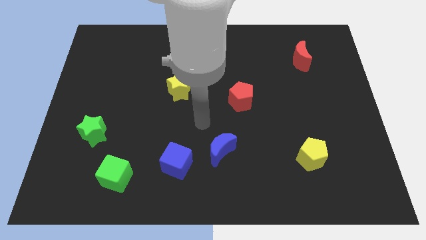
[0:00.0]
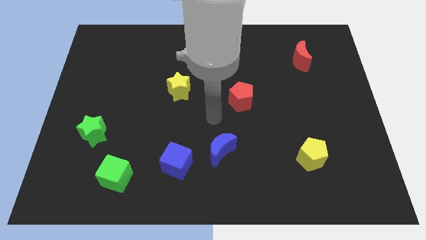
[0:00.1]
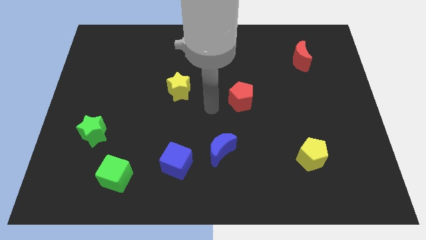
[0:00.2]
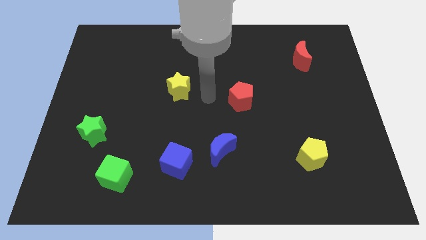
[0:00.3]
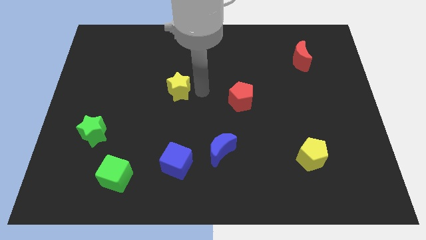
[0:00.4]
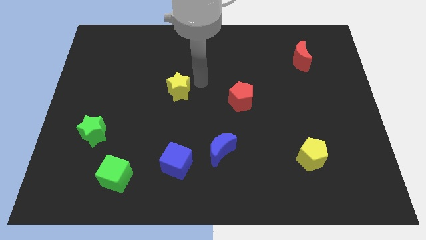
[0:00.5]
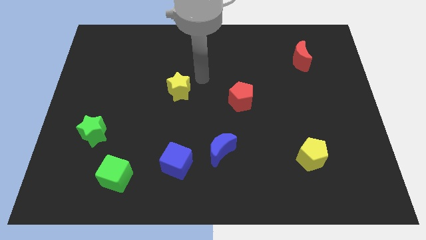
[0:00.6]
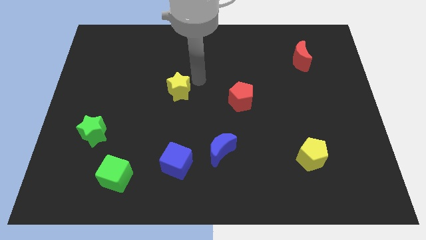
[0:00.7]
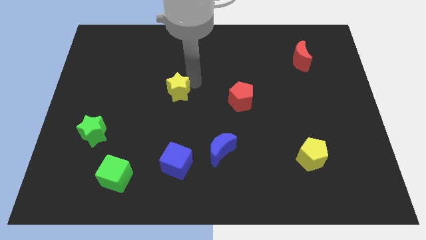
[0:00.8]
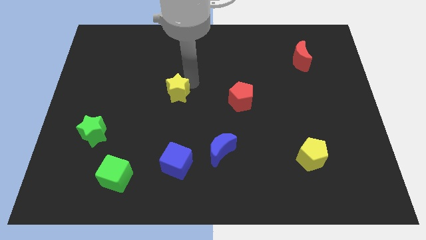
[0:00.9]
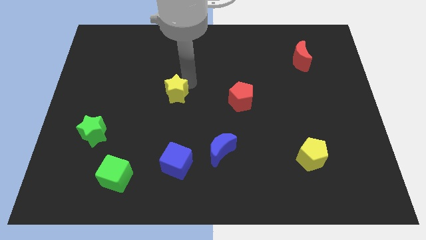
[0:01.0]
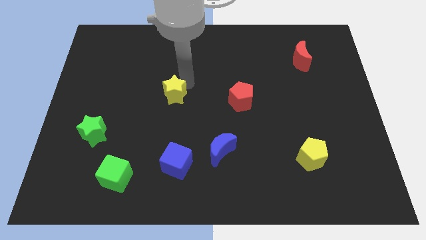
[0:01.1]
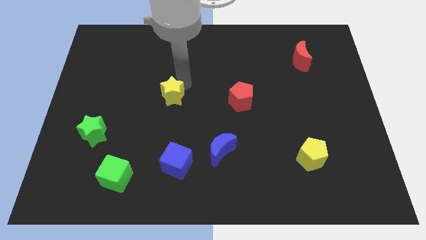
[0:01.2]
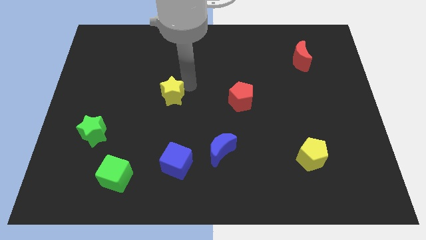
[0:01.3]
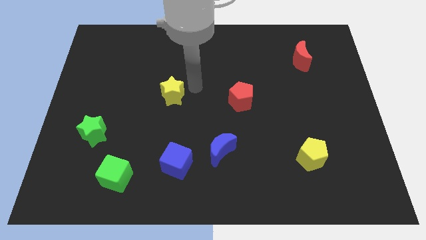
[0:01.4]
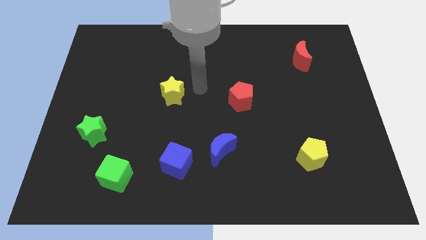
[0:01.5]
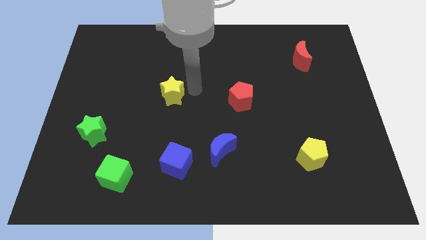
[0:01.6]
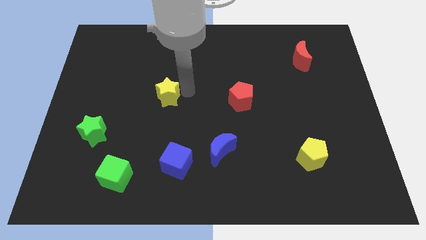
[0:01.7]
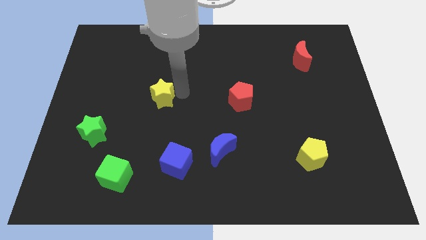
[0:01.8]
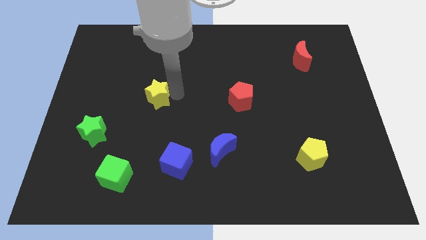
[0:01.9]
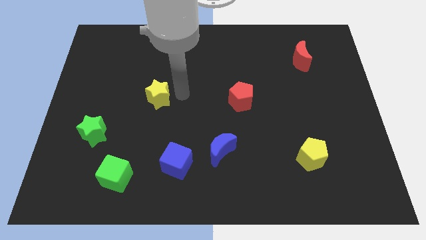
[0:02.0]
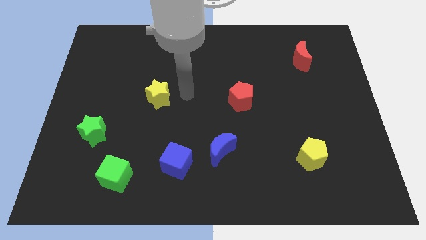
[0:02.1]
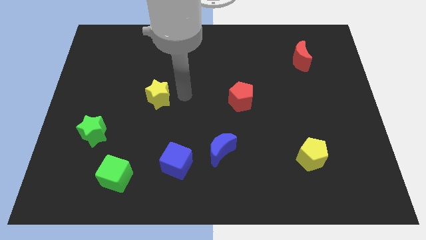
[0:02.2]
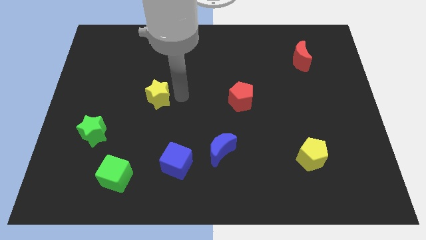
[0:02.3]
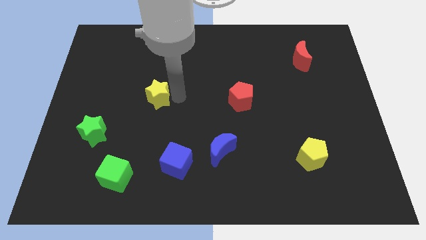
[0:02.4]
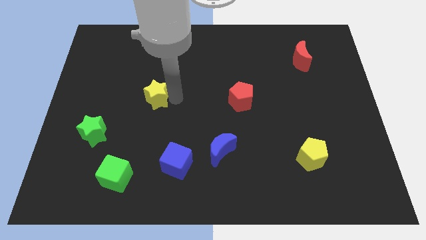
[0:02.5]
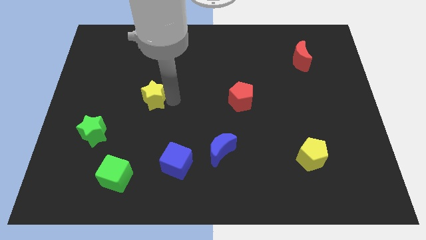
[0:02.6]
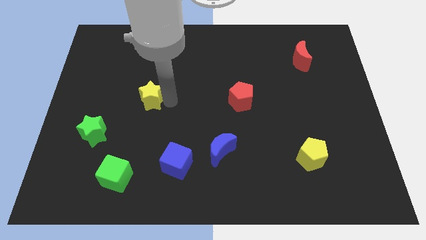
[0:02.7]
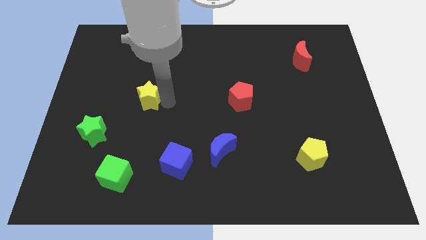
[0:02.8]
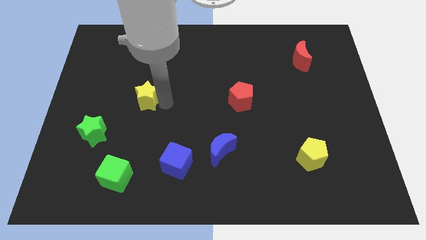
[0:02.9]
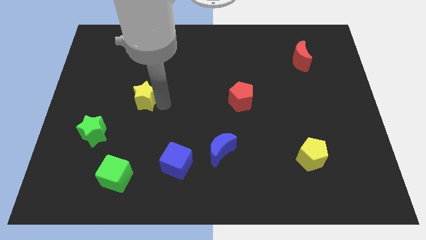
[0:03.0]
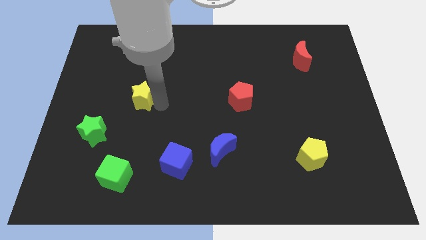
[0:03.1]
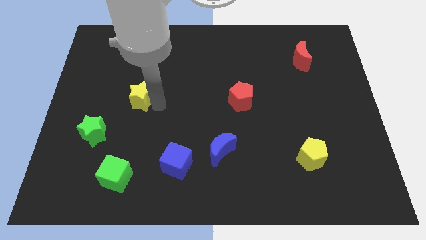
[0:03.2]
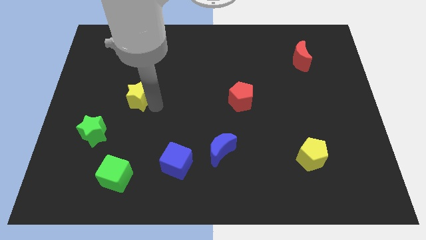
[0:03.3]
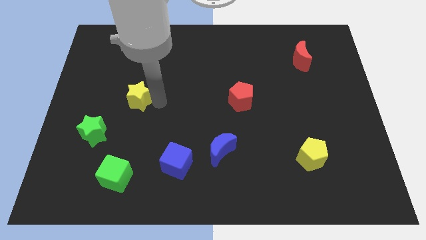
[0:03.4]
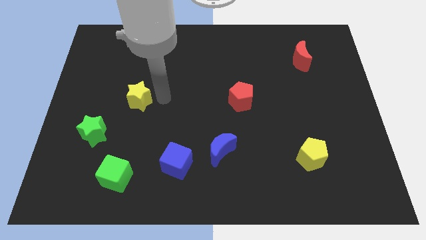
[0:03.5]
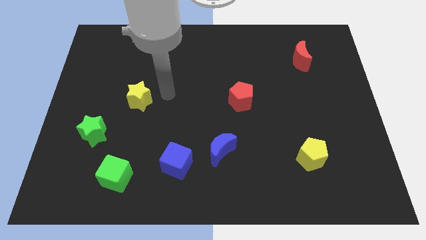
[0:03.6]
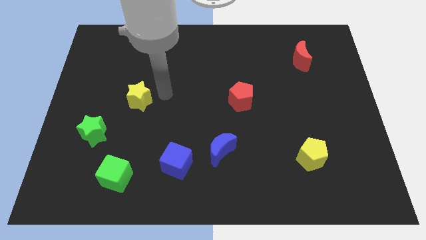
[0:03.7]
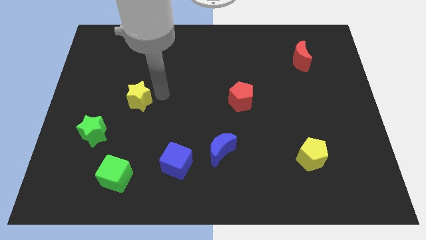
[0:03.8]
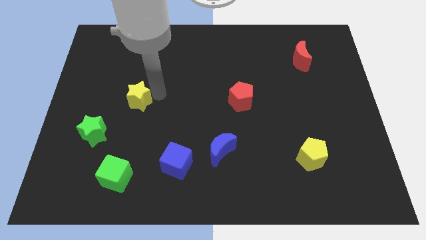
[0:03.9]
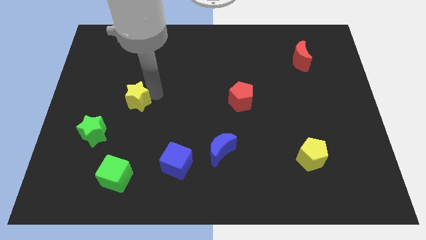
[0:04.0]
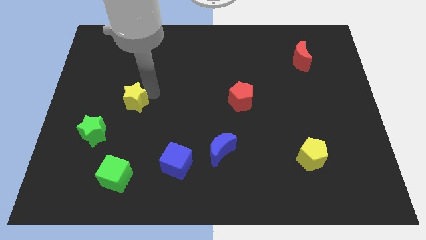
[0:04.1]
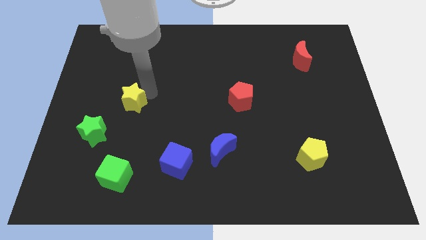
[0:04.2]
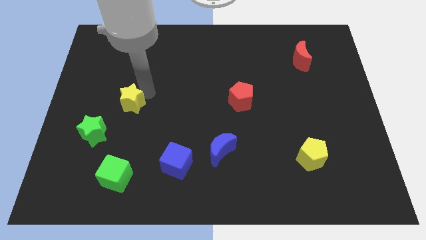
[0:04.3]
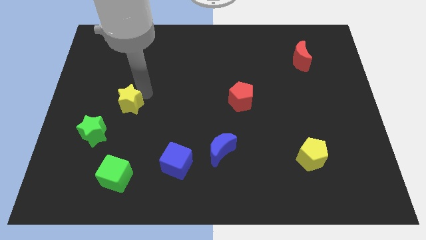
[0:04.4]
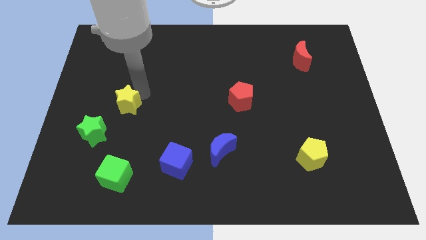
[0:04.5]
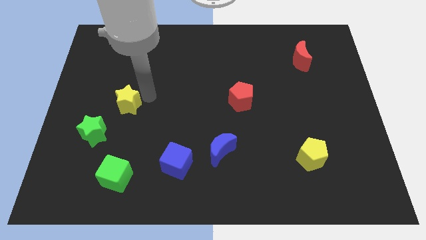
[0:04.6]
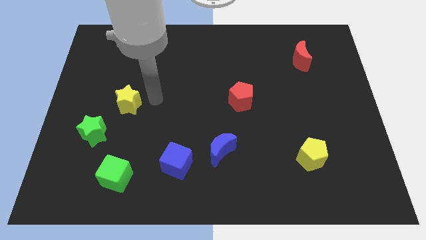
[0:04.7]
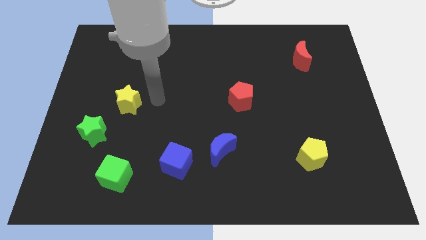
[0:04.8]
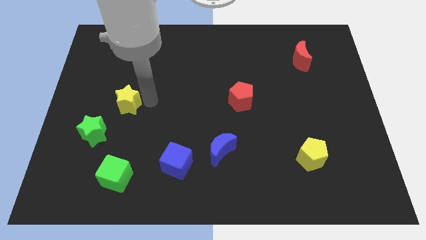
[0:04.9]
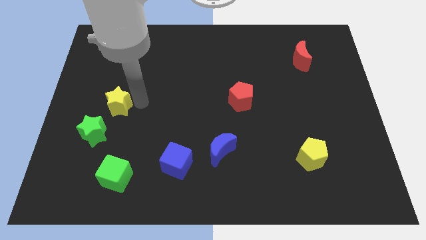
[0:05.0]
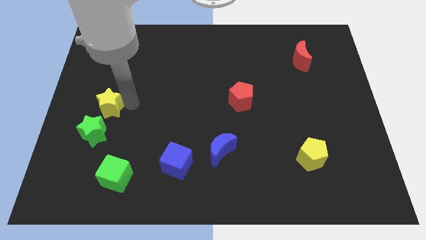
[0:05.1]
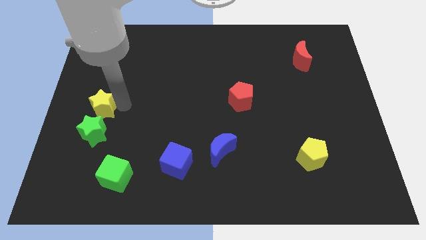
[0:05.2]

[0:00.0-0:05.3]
push the yellow star to the center left

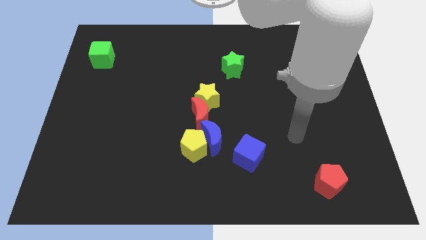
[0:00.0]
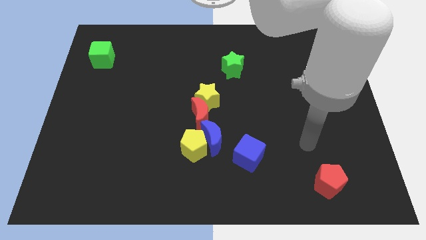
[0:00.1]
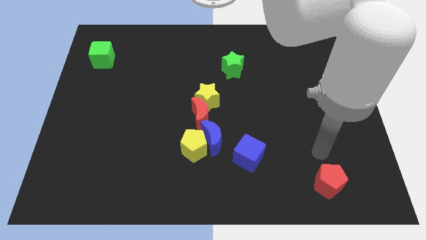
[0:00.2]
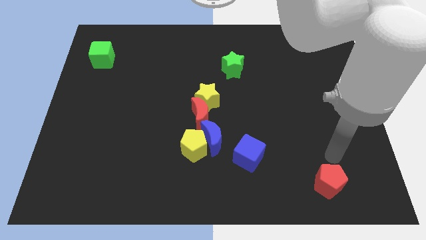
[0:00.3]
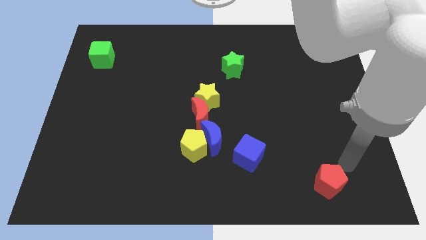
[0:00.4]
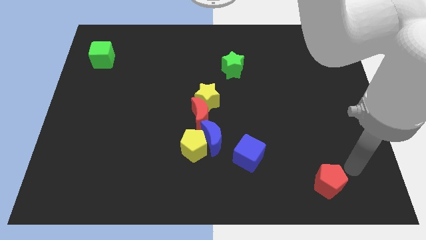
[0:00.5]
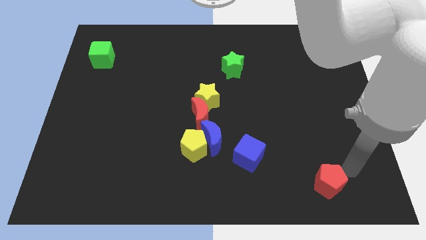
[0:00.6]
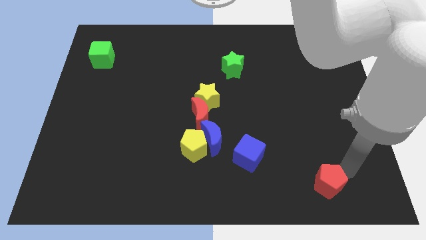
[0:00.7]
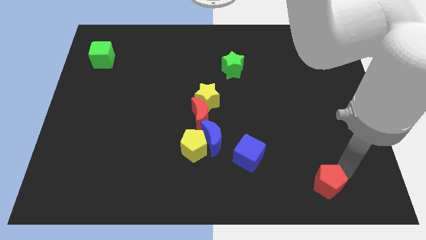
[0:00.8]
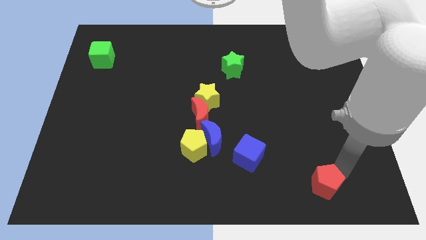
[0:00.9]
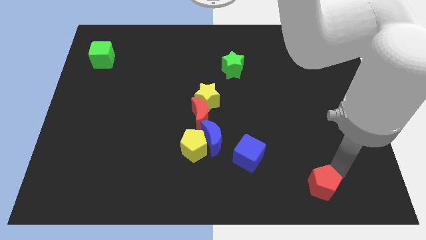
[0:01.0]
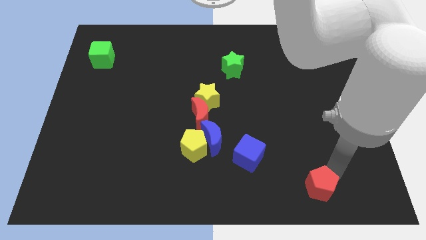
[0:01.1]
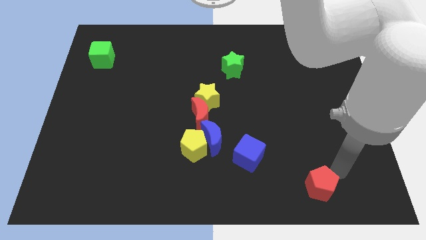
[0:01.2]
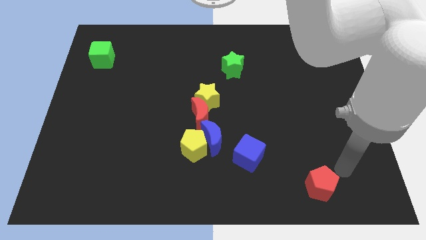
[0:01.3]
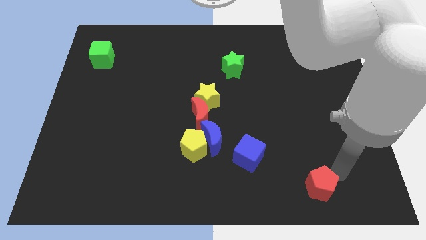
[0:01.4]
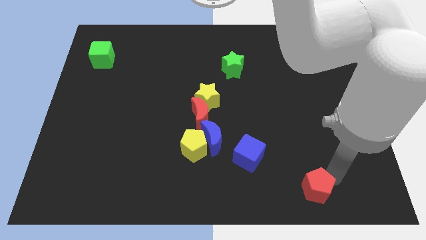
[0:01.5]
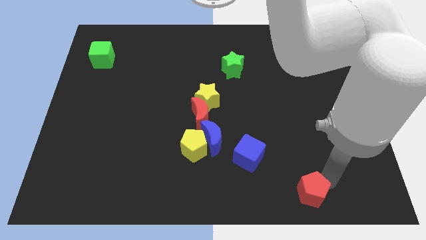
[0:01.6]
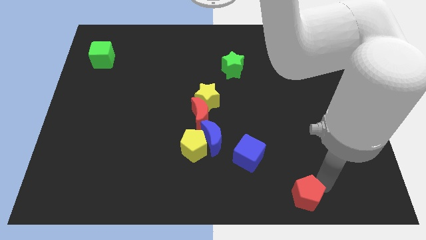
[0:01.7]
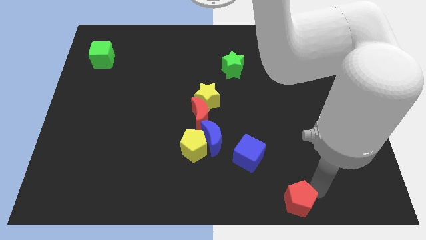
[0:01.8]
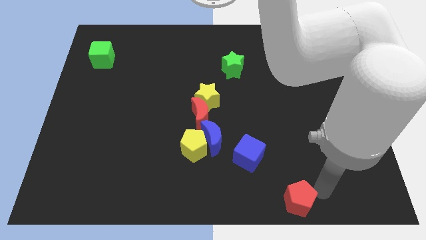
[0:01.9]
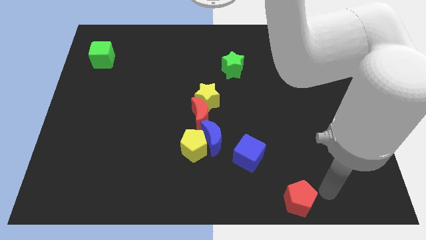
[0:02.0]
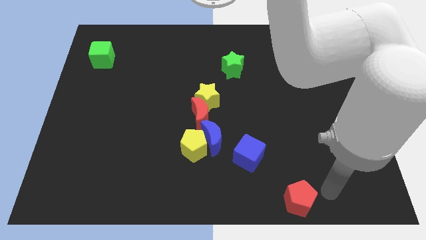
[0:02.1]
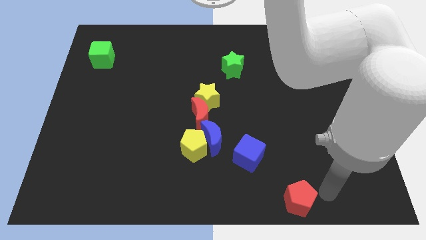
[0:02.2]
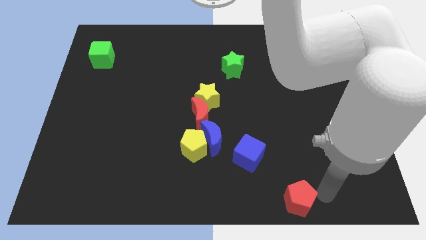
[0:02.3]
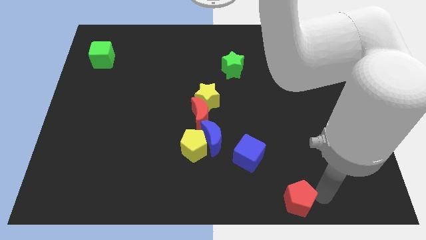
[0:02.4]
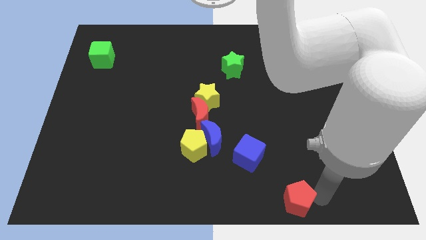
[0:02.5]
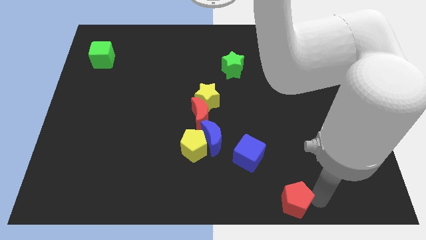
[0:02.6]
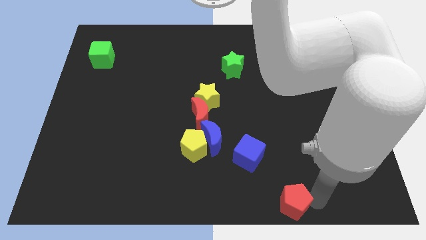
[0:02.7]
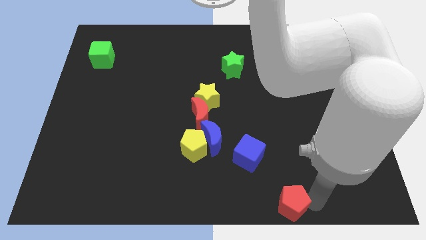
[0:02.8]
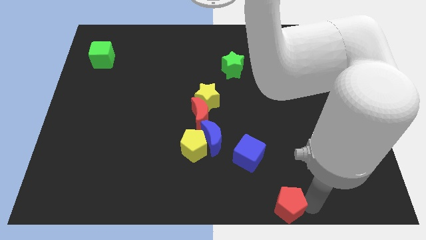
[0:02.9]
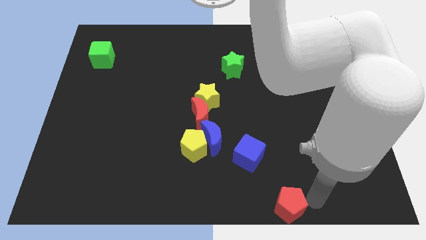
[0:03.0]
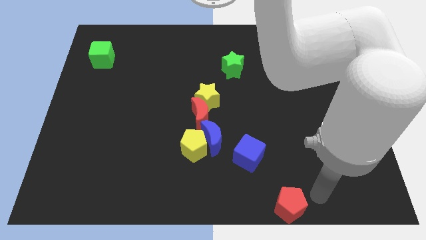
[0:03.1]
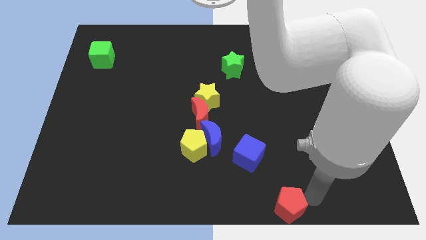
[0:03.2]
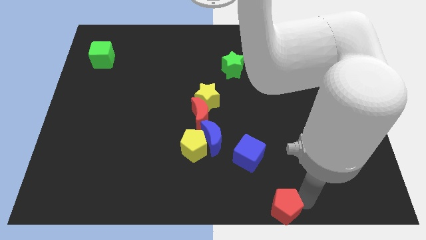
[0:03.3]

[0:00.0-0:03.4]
put the red pentagon to the bottom side
